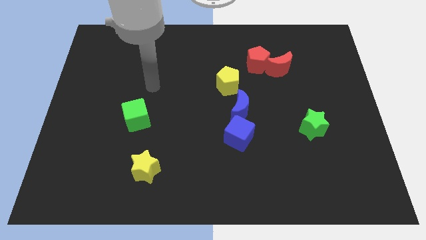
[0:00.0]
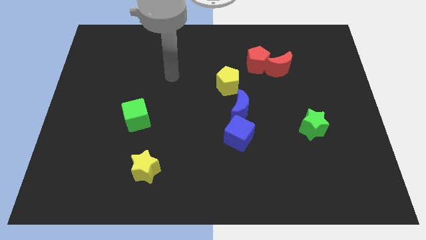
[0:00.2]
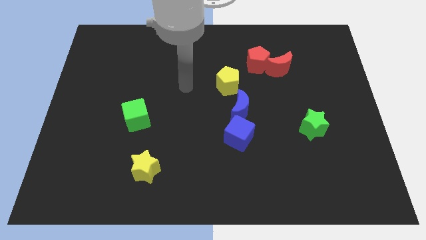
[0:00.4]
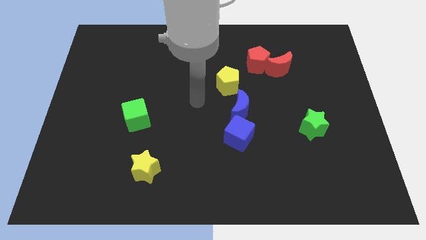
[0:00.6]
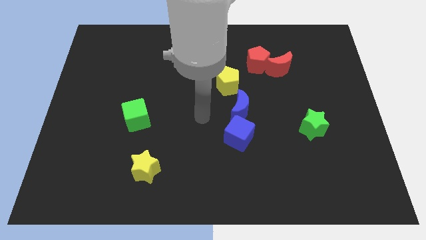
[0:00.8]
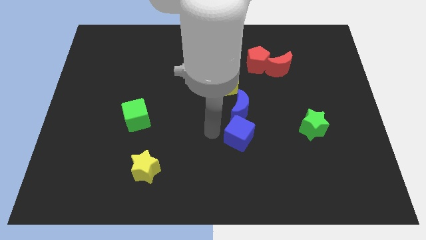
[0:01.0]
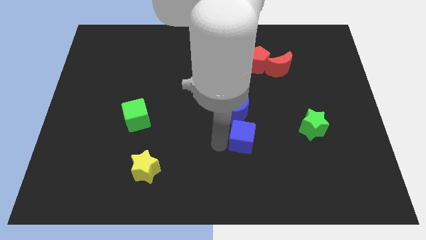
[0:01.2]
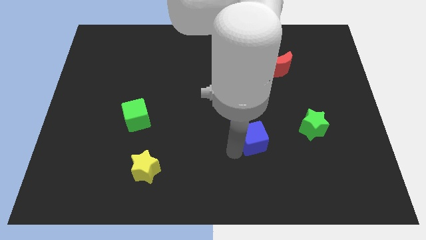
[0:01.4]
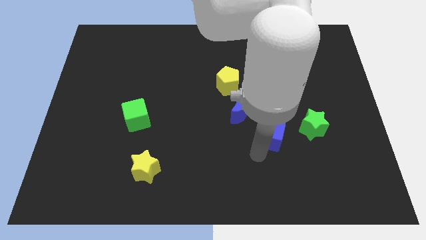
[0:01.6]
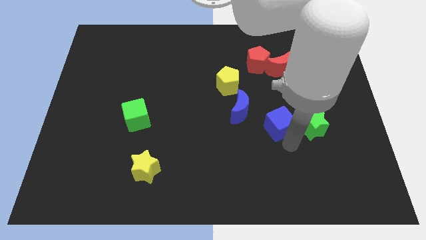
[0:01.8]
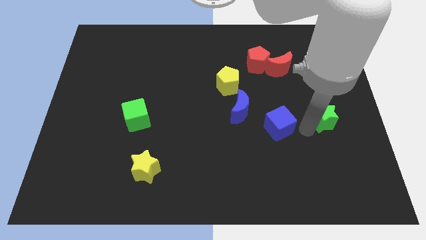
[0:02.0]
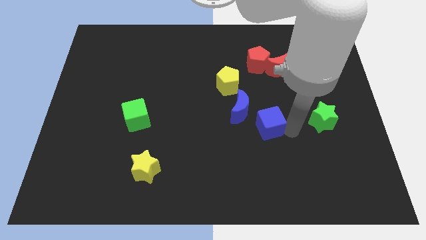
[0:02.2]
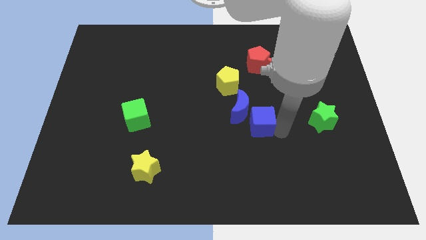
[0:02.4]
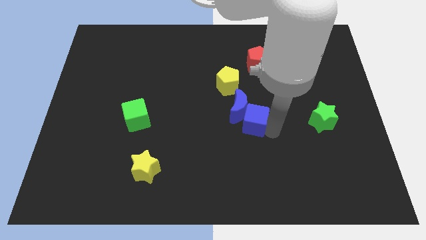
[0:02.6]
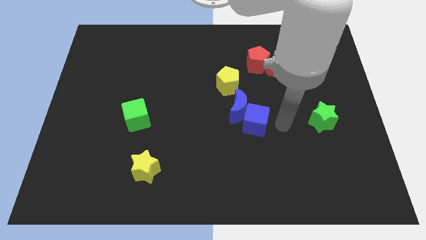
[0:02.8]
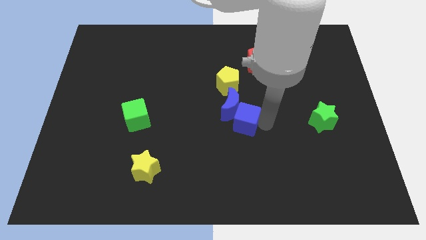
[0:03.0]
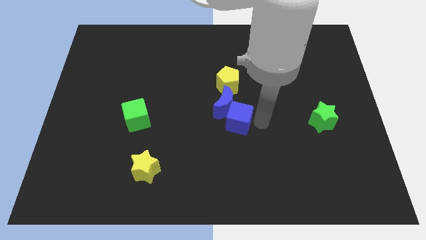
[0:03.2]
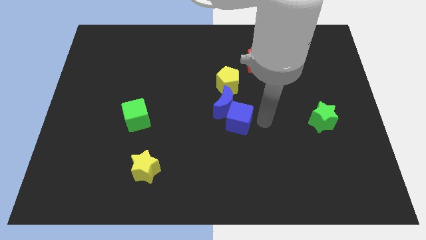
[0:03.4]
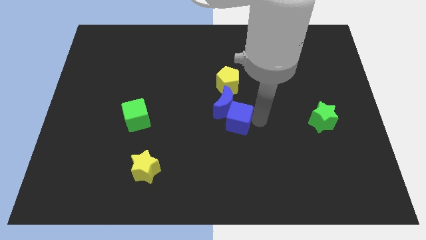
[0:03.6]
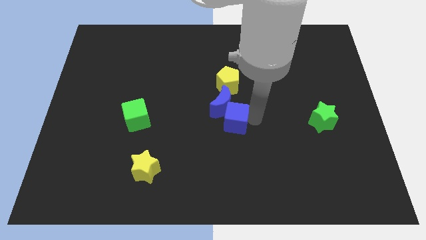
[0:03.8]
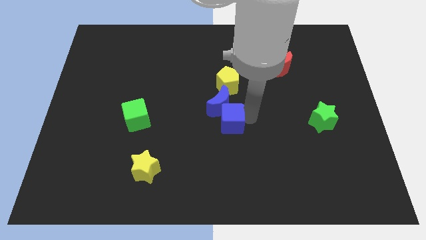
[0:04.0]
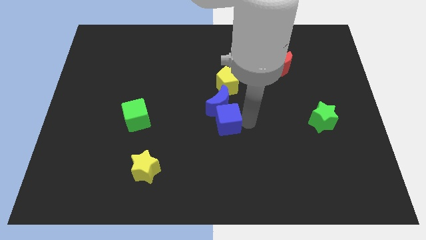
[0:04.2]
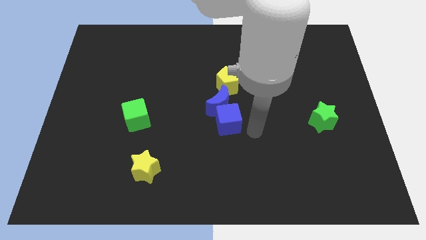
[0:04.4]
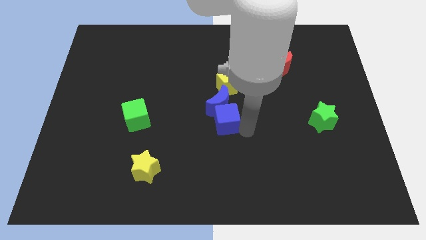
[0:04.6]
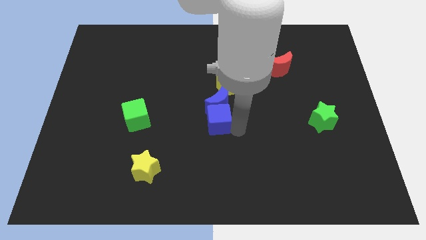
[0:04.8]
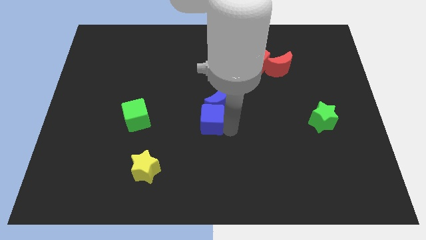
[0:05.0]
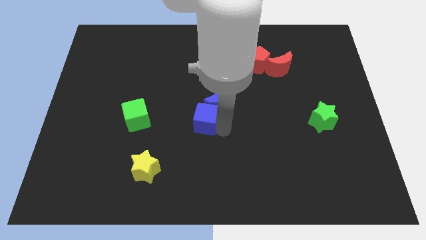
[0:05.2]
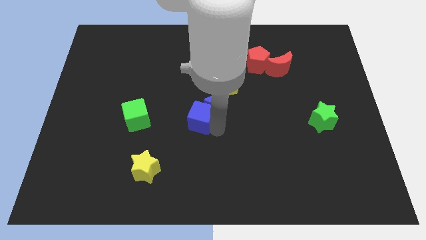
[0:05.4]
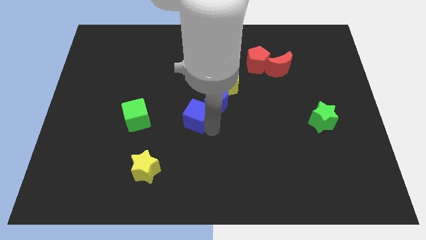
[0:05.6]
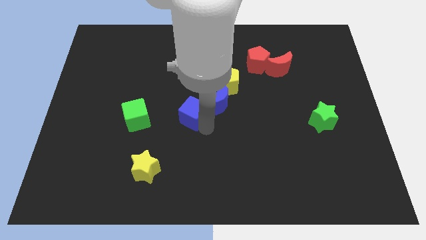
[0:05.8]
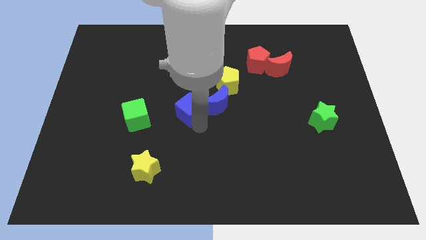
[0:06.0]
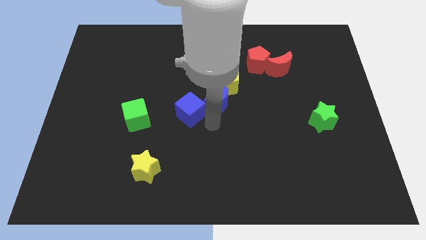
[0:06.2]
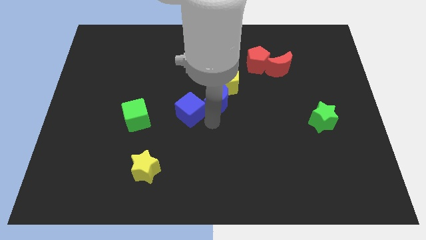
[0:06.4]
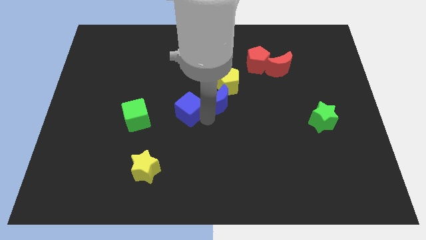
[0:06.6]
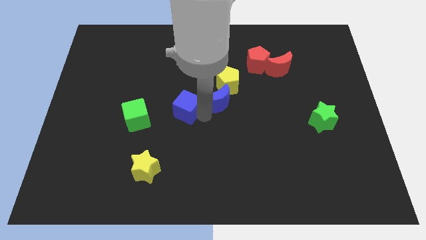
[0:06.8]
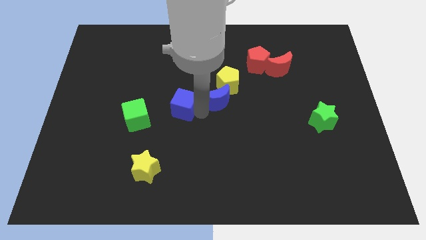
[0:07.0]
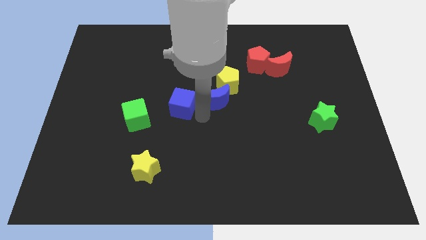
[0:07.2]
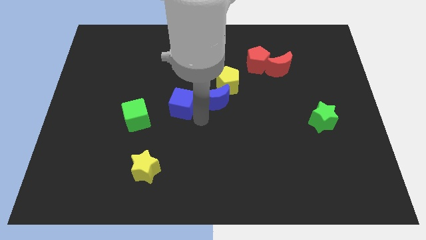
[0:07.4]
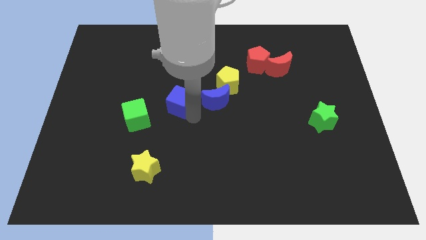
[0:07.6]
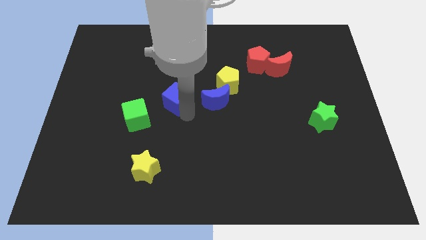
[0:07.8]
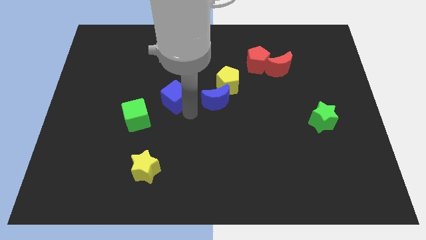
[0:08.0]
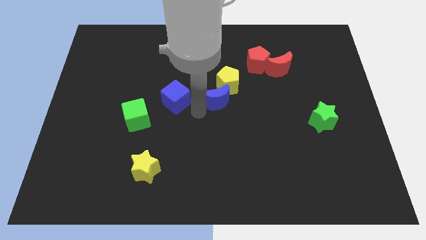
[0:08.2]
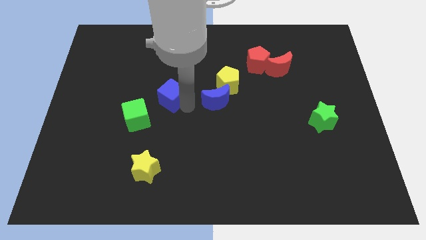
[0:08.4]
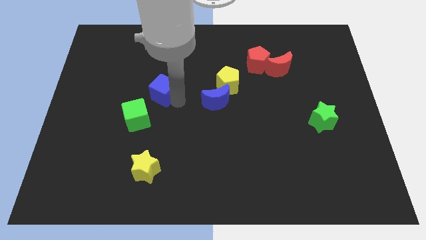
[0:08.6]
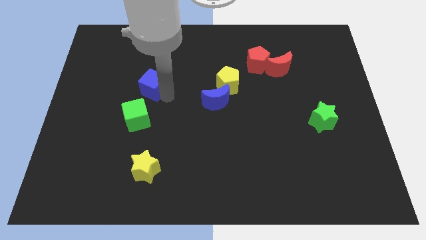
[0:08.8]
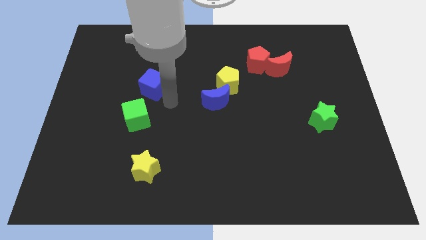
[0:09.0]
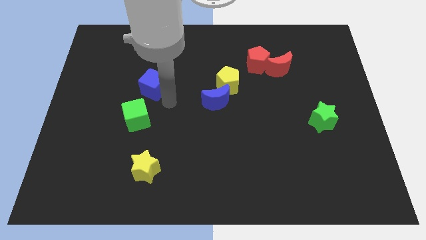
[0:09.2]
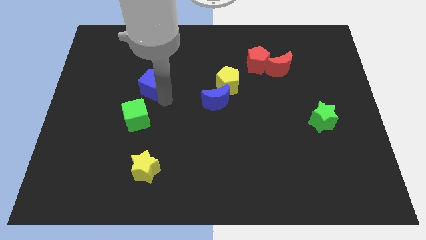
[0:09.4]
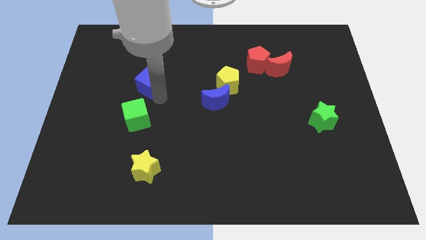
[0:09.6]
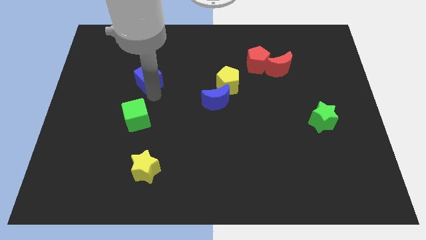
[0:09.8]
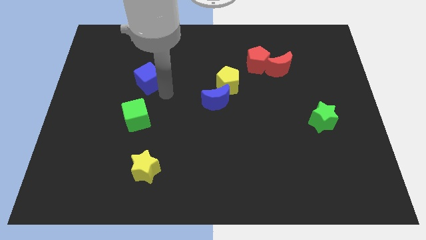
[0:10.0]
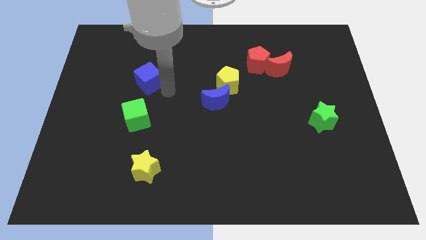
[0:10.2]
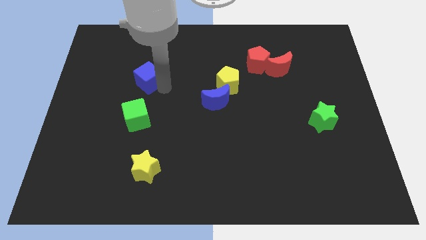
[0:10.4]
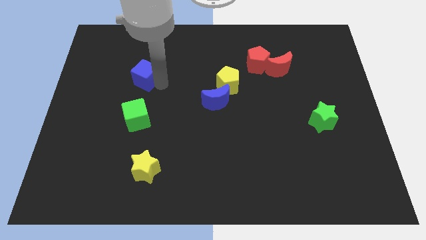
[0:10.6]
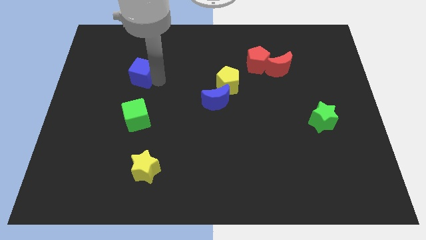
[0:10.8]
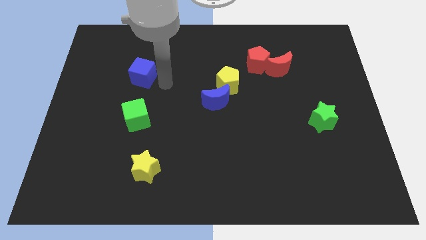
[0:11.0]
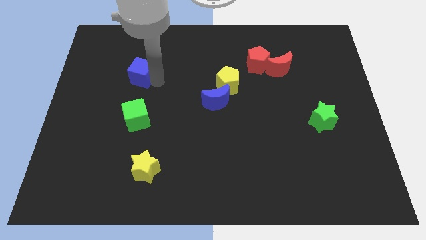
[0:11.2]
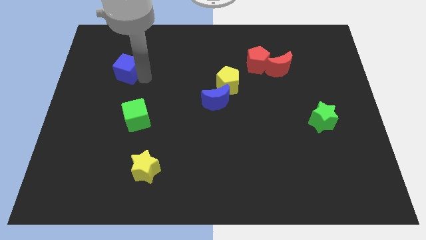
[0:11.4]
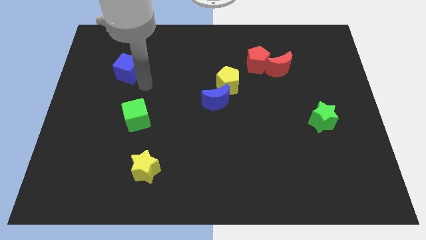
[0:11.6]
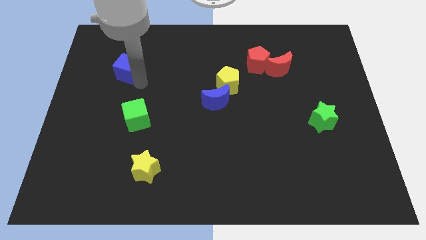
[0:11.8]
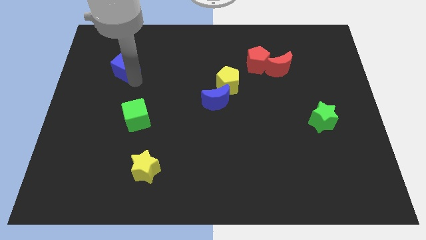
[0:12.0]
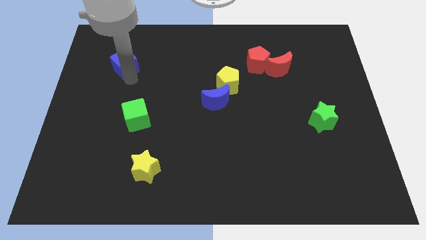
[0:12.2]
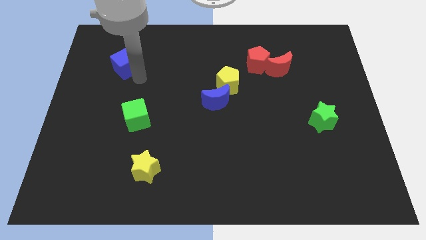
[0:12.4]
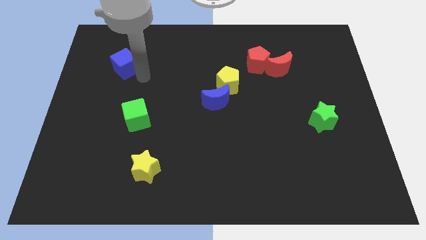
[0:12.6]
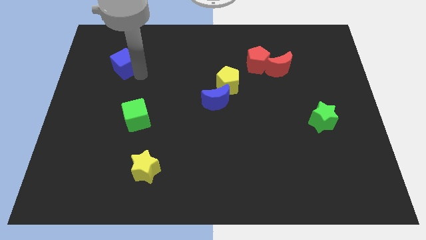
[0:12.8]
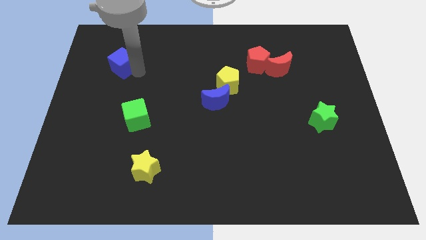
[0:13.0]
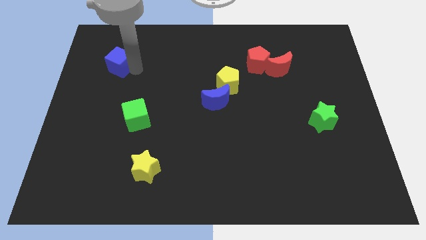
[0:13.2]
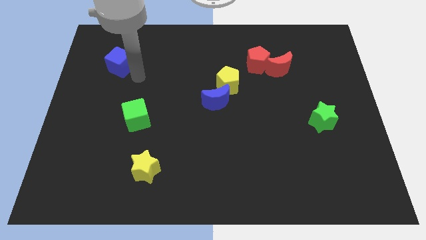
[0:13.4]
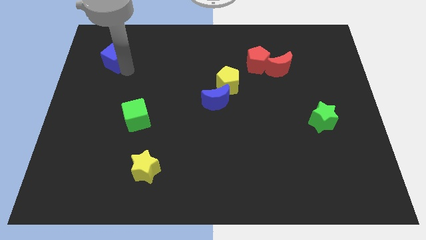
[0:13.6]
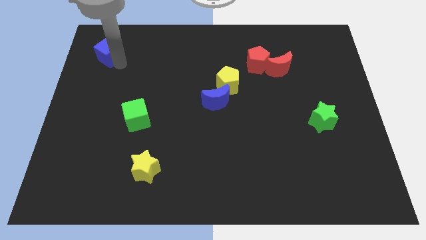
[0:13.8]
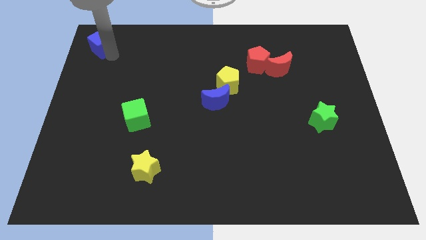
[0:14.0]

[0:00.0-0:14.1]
push the blue cube to the top left
